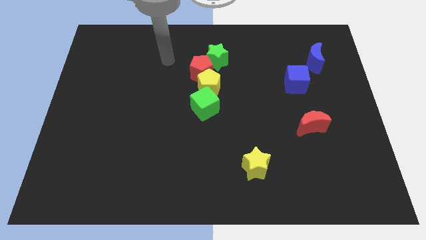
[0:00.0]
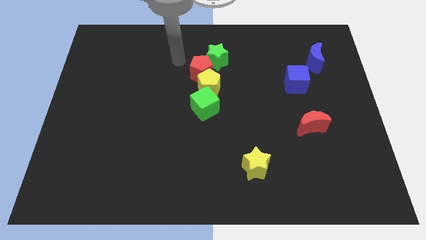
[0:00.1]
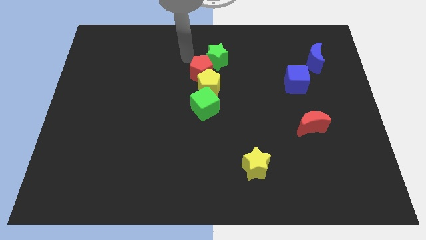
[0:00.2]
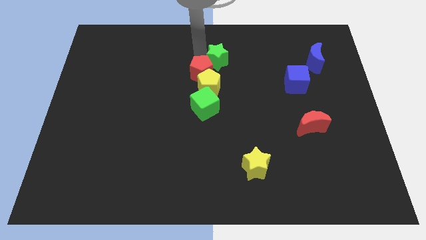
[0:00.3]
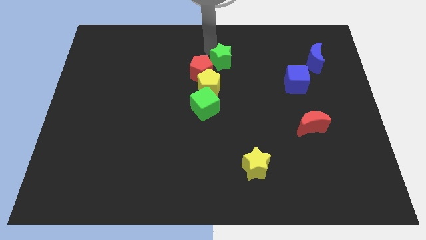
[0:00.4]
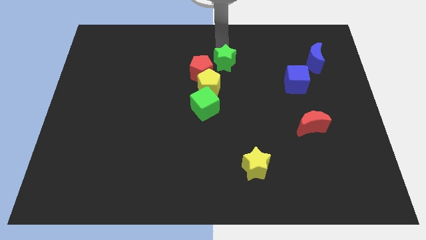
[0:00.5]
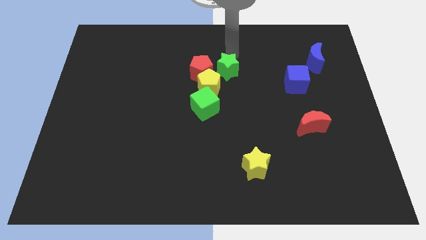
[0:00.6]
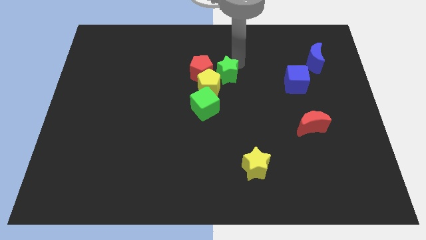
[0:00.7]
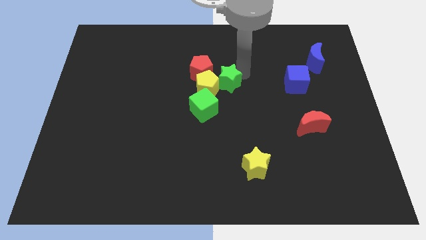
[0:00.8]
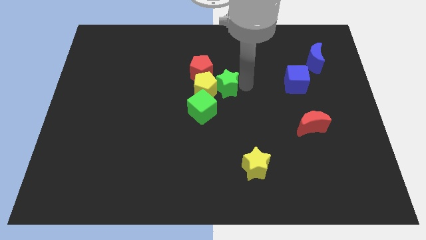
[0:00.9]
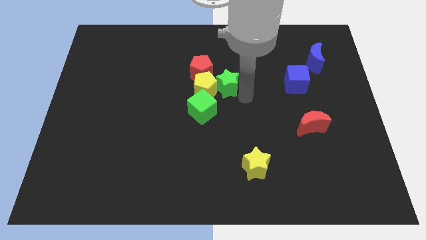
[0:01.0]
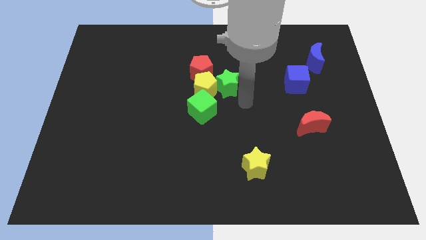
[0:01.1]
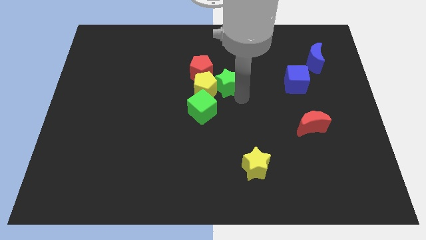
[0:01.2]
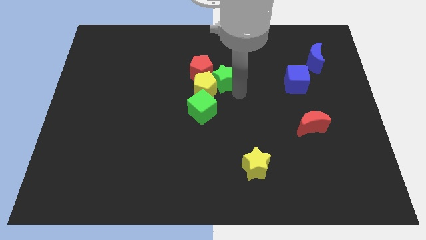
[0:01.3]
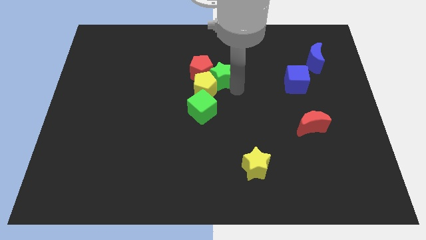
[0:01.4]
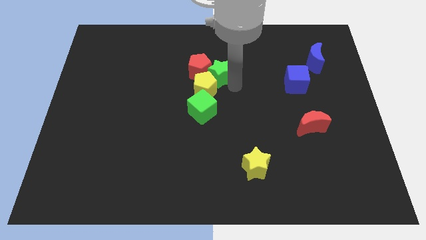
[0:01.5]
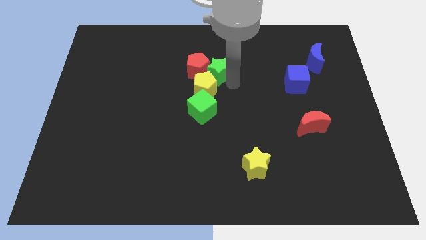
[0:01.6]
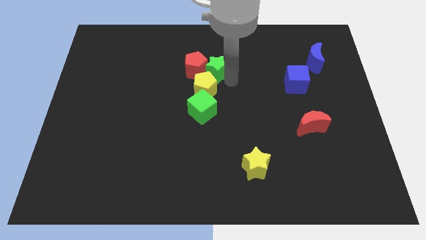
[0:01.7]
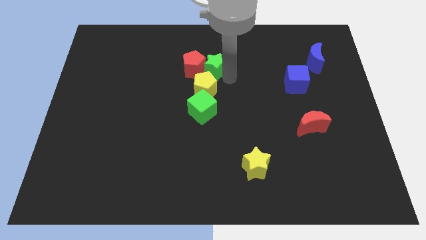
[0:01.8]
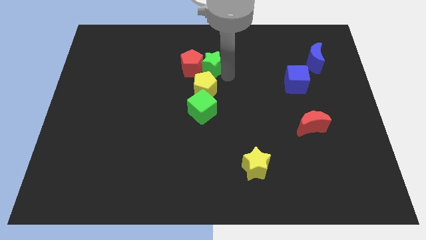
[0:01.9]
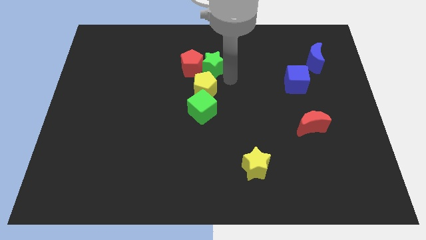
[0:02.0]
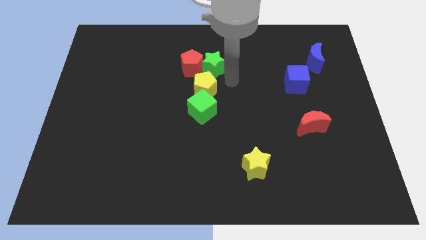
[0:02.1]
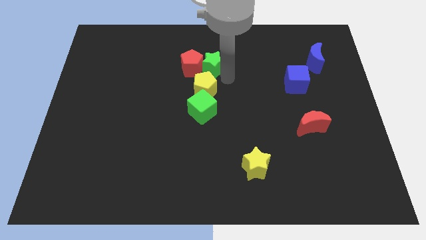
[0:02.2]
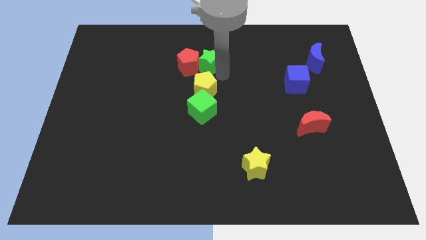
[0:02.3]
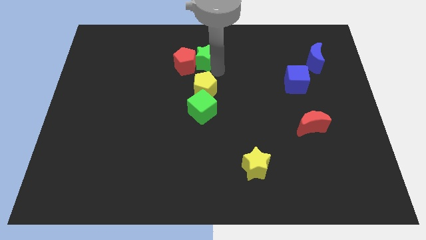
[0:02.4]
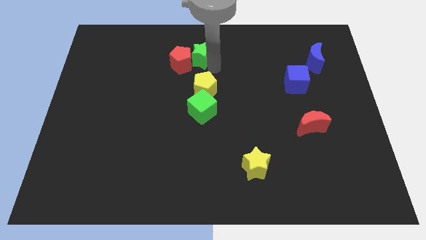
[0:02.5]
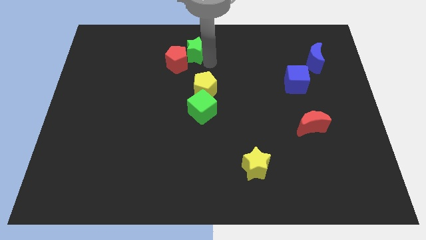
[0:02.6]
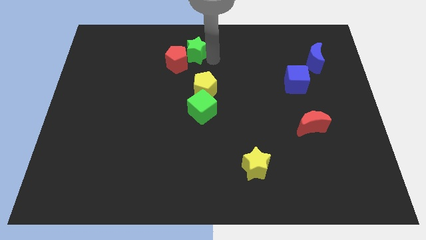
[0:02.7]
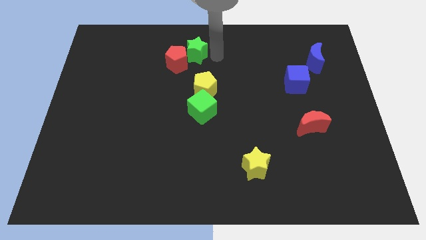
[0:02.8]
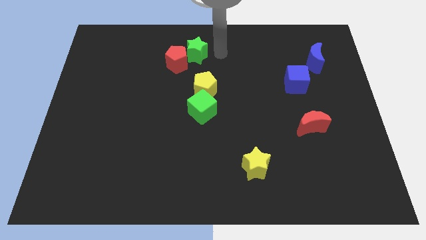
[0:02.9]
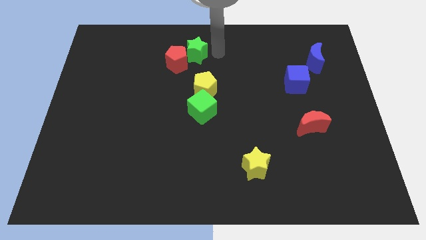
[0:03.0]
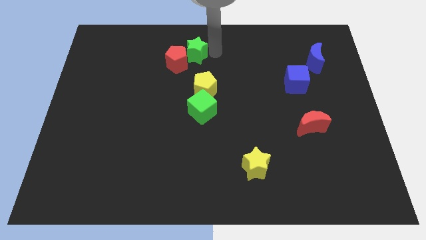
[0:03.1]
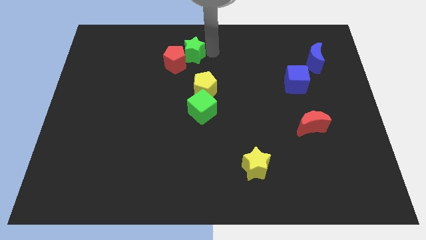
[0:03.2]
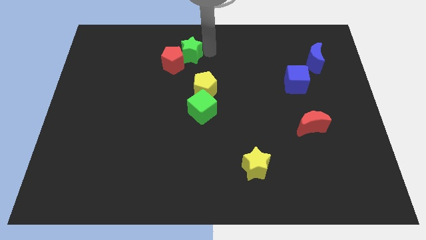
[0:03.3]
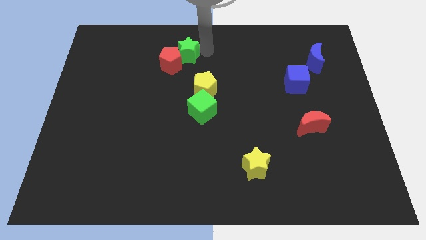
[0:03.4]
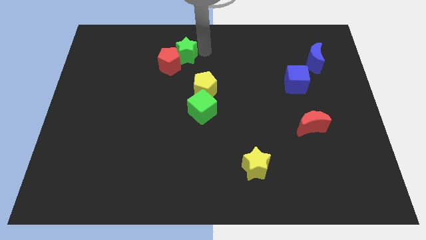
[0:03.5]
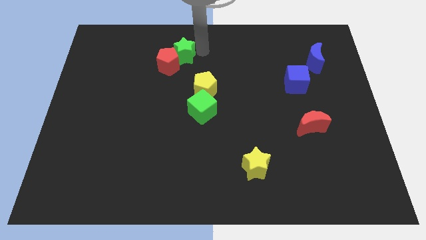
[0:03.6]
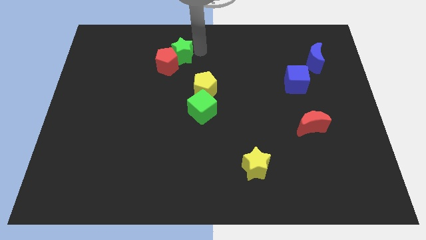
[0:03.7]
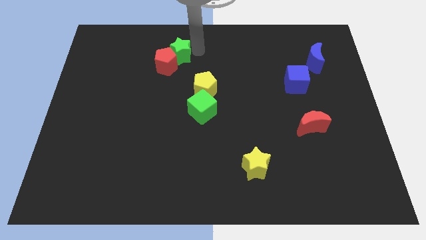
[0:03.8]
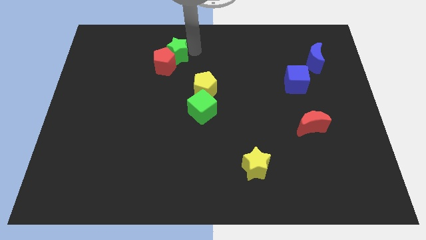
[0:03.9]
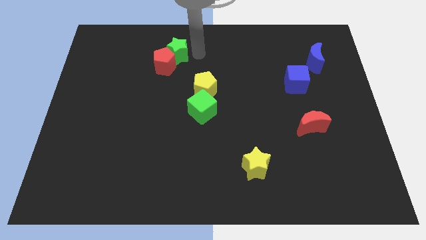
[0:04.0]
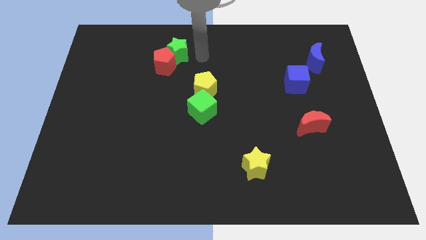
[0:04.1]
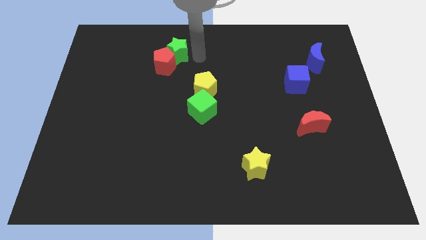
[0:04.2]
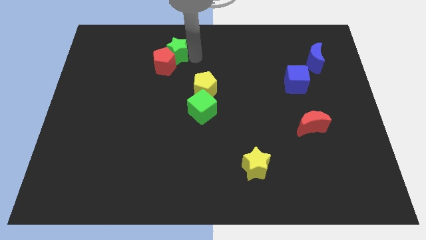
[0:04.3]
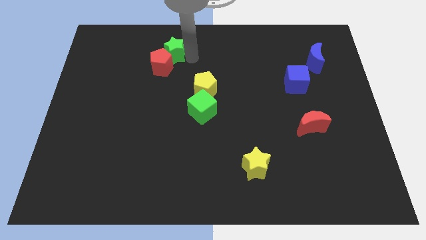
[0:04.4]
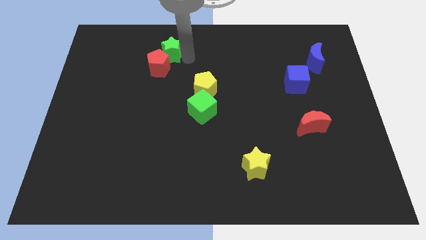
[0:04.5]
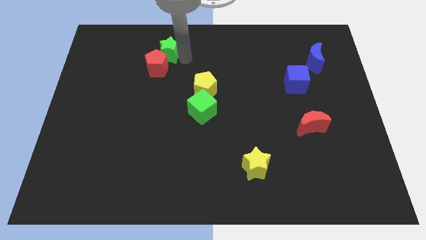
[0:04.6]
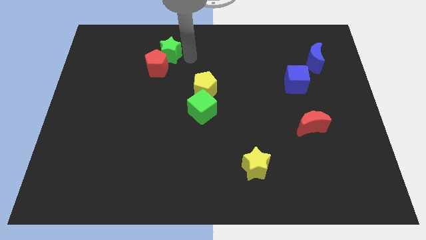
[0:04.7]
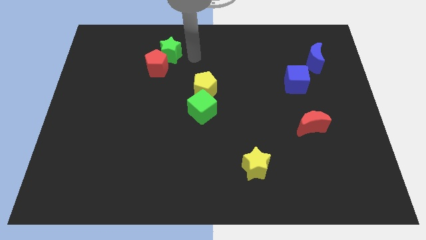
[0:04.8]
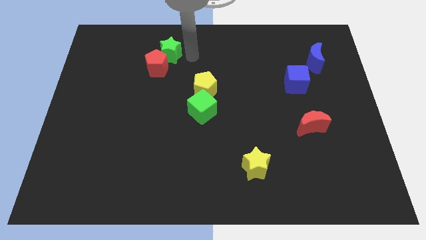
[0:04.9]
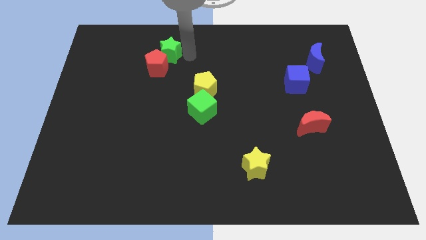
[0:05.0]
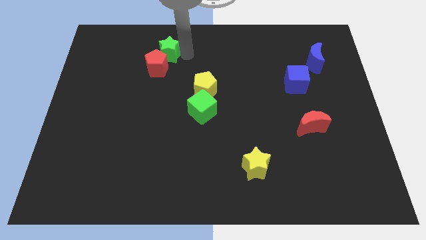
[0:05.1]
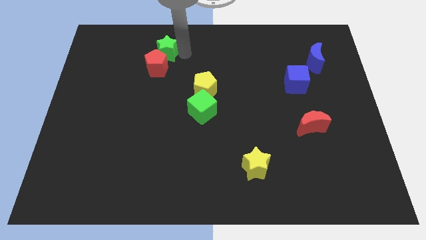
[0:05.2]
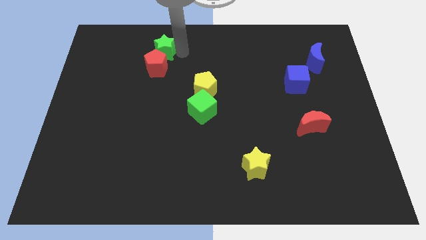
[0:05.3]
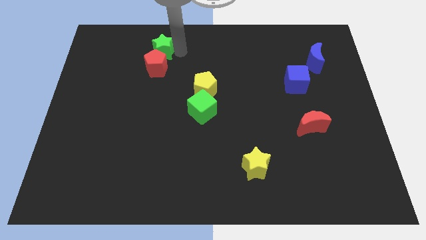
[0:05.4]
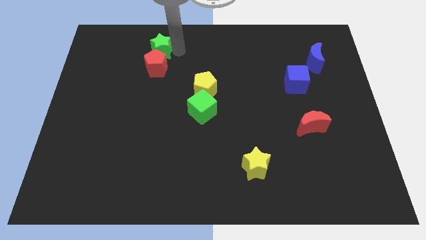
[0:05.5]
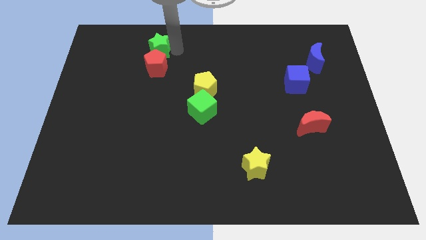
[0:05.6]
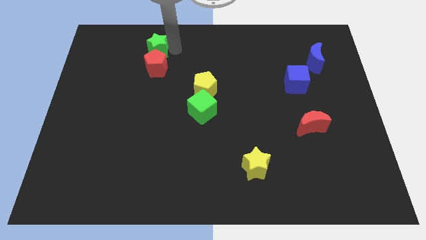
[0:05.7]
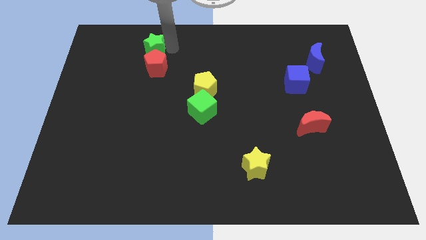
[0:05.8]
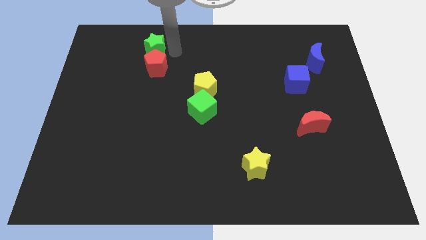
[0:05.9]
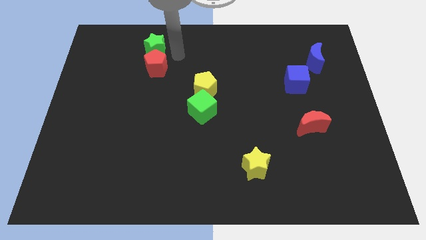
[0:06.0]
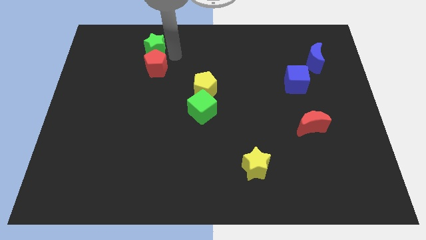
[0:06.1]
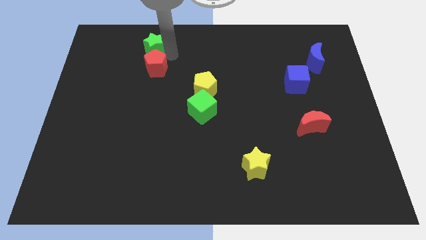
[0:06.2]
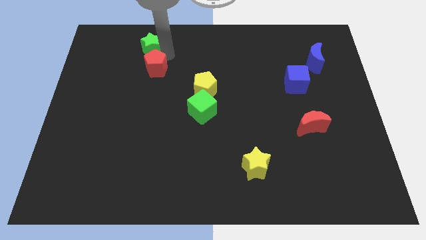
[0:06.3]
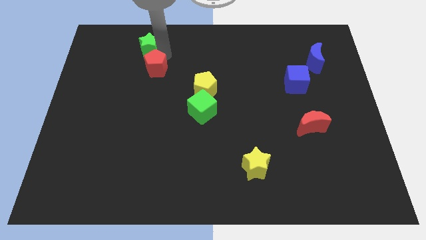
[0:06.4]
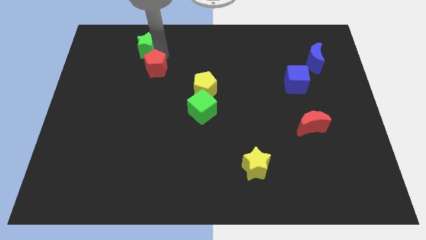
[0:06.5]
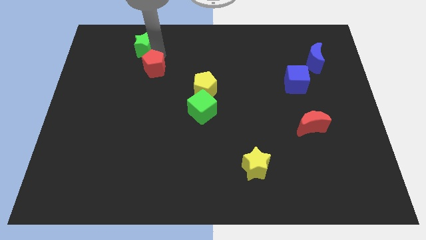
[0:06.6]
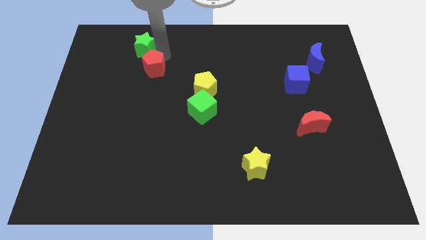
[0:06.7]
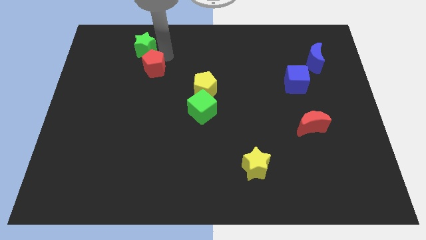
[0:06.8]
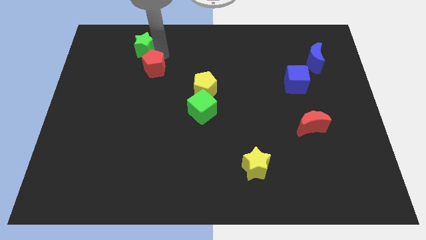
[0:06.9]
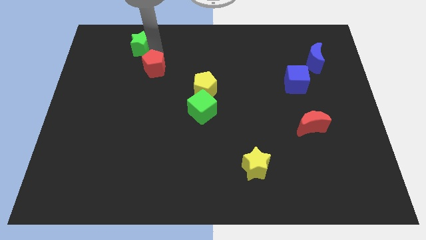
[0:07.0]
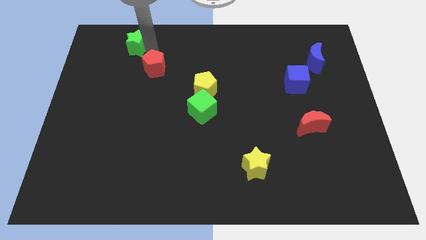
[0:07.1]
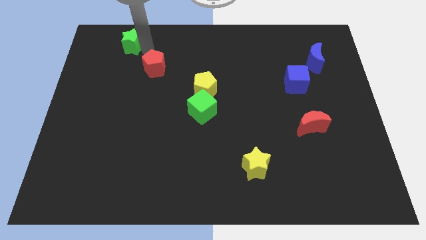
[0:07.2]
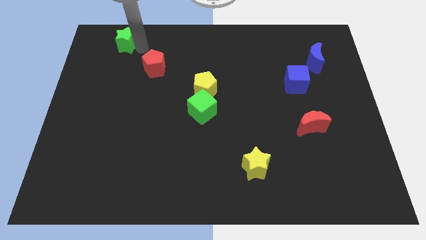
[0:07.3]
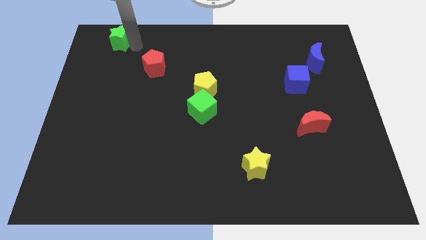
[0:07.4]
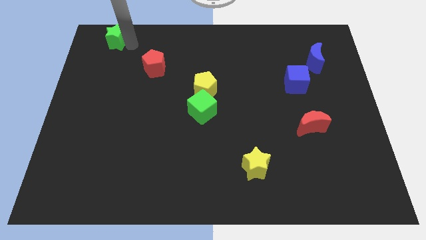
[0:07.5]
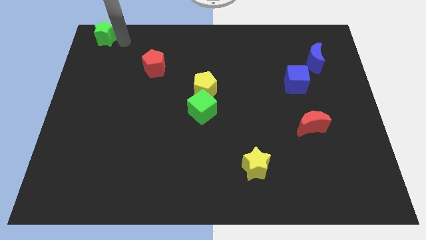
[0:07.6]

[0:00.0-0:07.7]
slide the green star to the top left of the board
